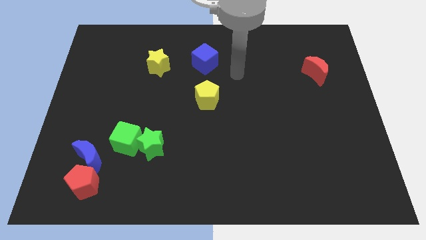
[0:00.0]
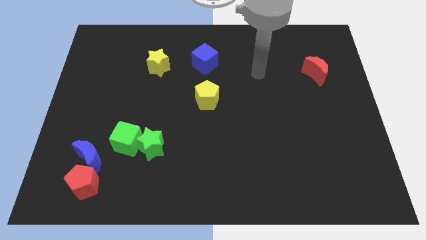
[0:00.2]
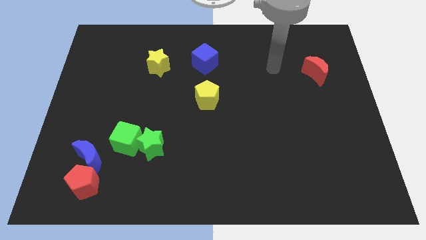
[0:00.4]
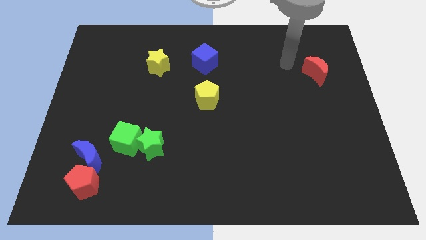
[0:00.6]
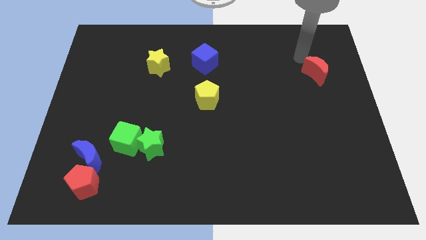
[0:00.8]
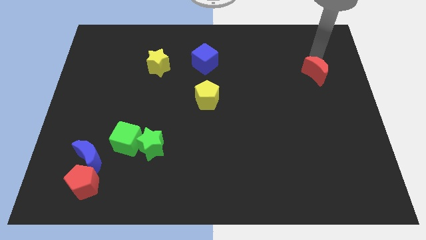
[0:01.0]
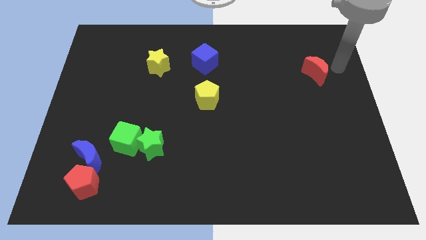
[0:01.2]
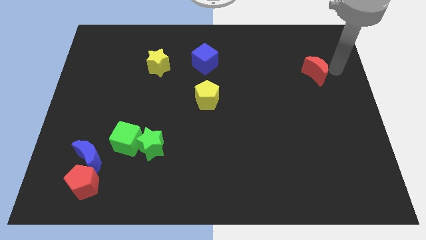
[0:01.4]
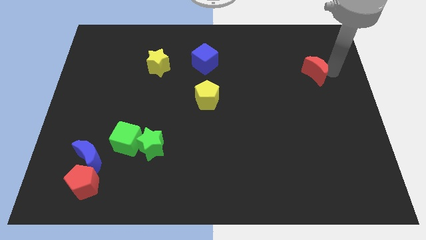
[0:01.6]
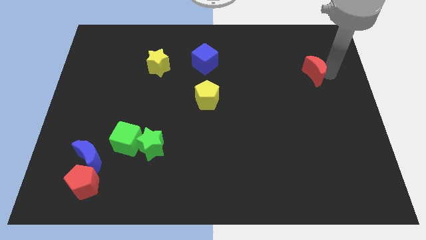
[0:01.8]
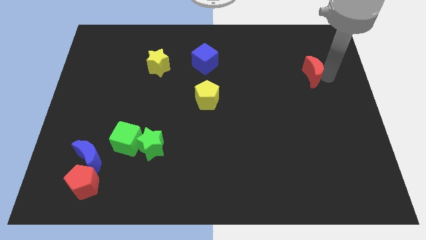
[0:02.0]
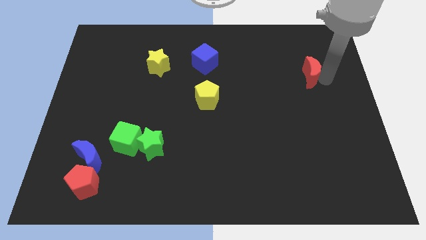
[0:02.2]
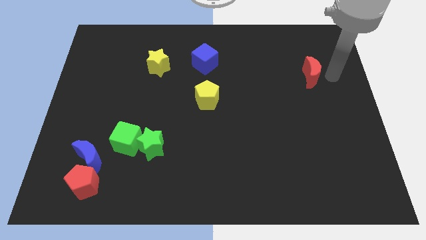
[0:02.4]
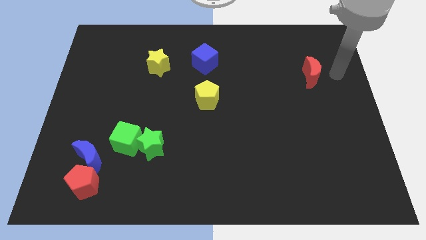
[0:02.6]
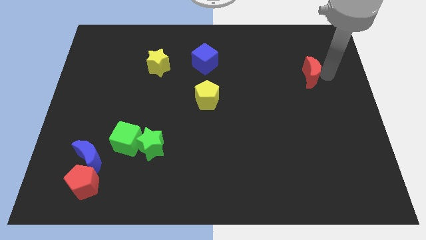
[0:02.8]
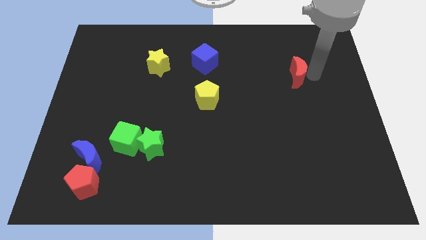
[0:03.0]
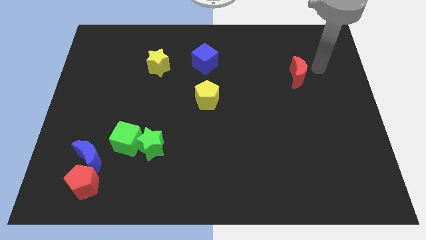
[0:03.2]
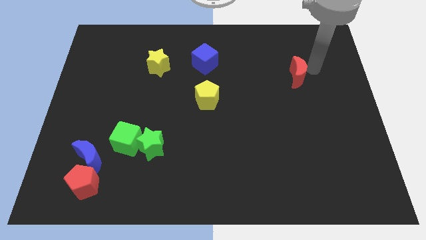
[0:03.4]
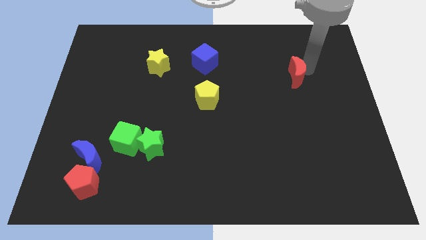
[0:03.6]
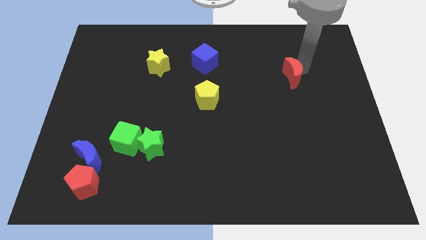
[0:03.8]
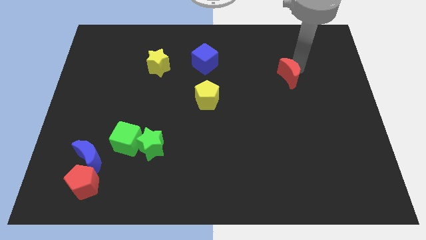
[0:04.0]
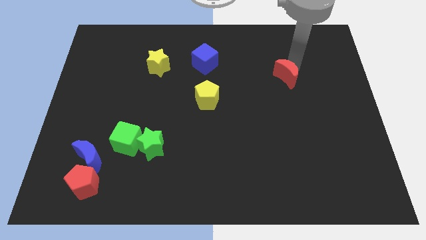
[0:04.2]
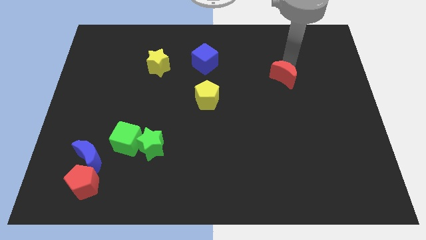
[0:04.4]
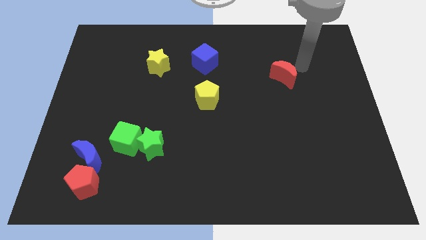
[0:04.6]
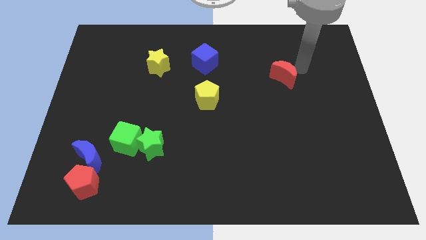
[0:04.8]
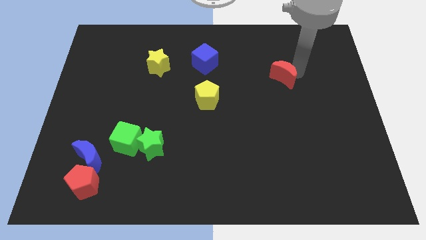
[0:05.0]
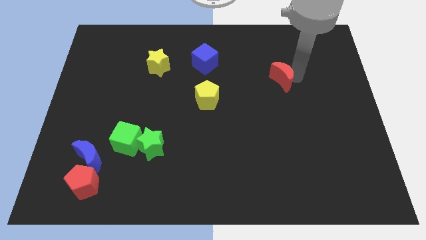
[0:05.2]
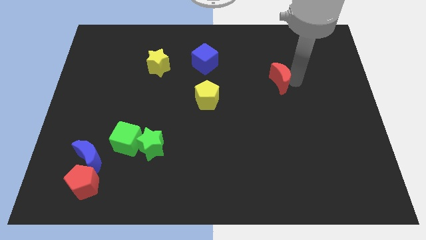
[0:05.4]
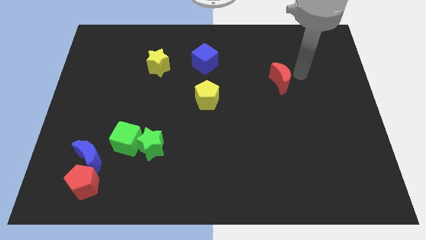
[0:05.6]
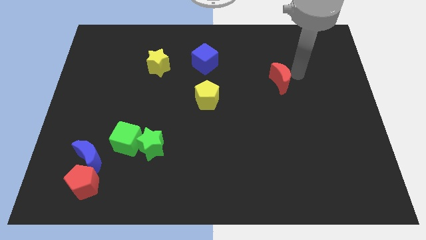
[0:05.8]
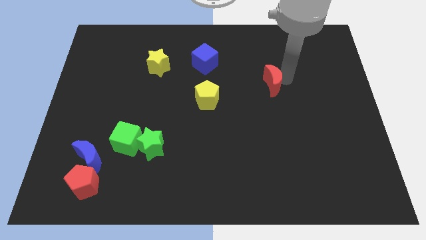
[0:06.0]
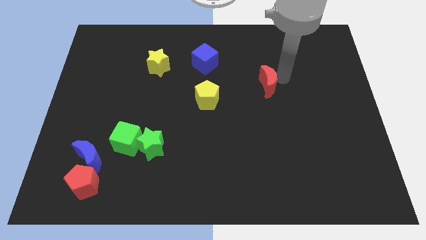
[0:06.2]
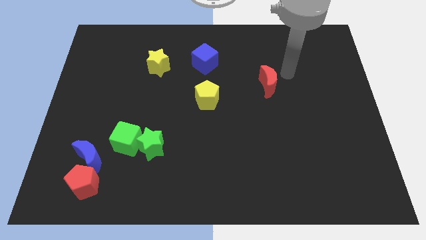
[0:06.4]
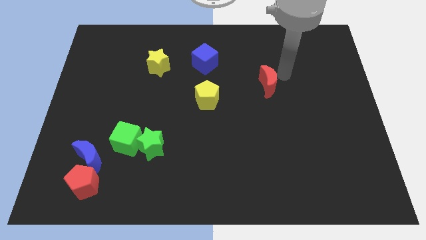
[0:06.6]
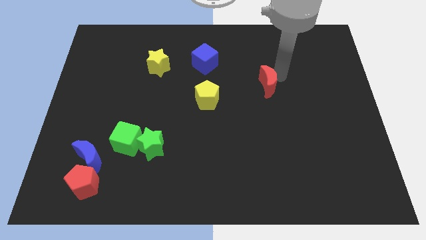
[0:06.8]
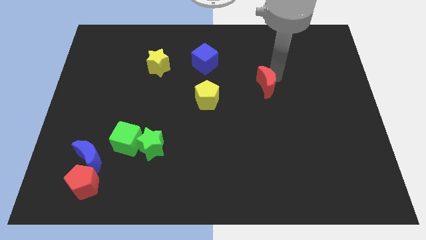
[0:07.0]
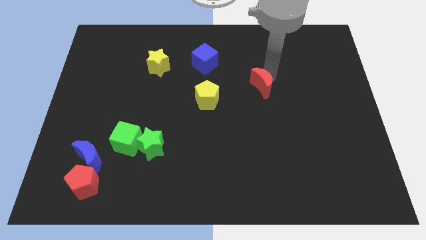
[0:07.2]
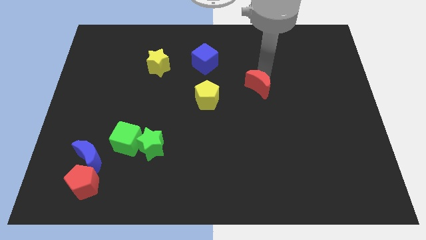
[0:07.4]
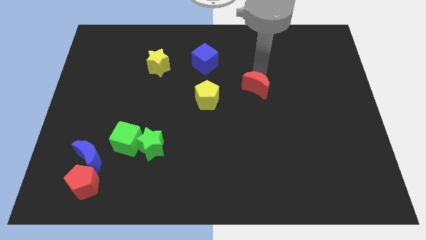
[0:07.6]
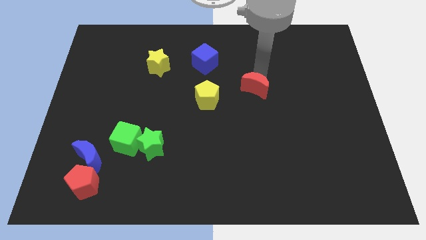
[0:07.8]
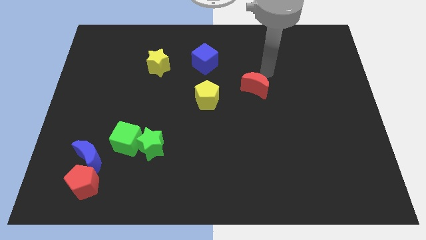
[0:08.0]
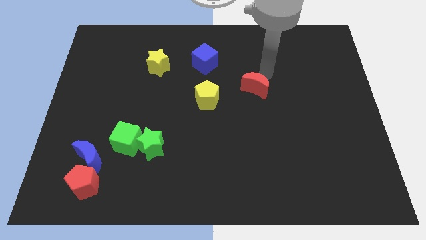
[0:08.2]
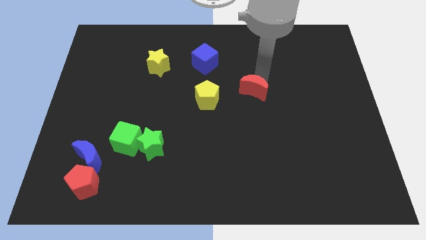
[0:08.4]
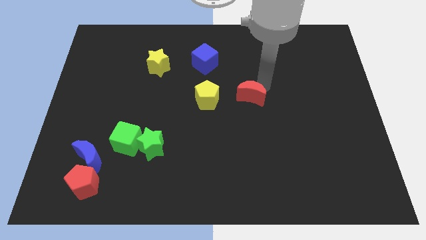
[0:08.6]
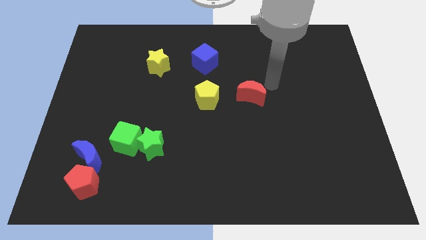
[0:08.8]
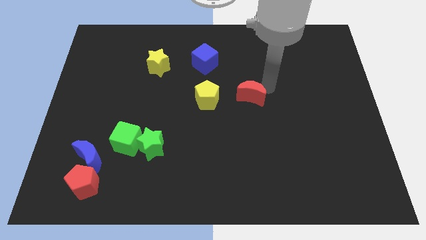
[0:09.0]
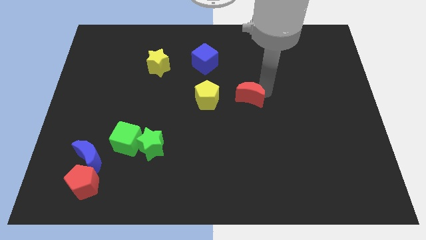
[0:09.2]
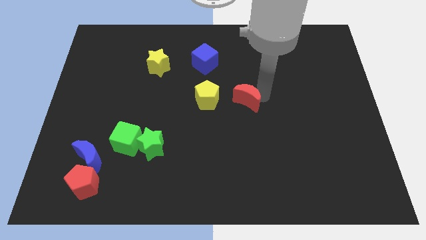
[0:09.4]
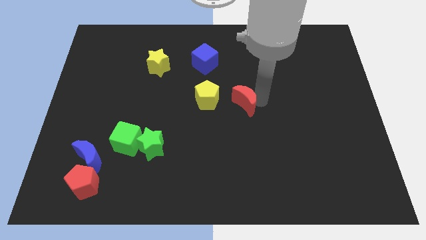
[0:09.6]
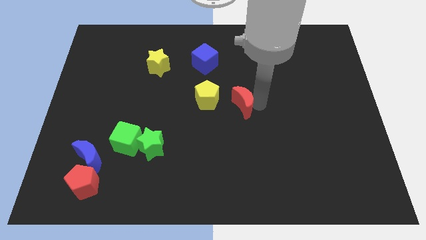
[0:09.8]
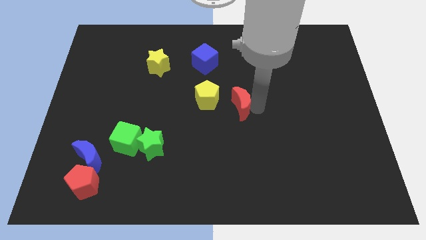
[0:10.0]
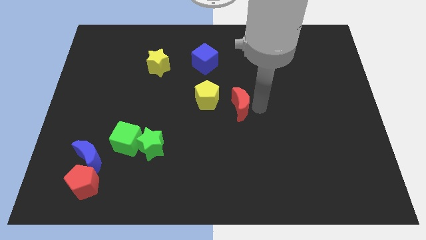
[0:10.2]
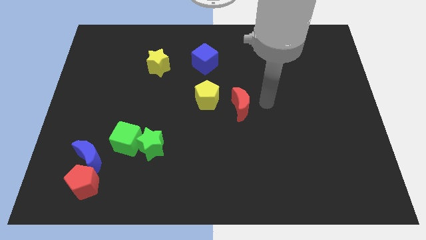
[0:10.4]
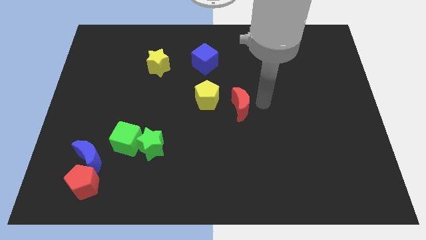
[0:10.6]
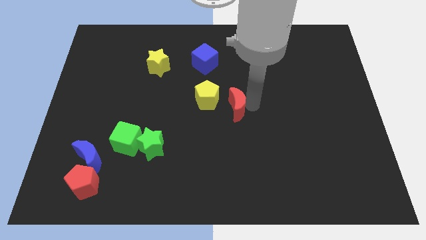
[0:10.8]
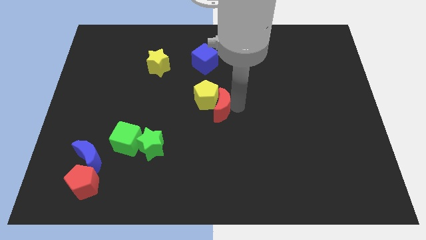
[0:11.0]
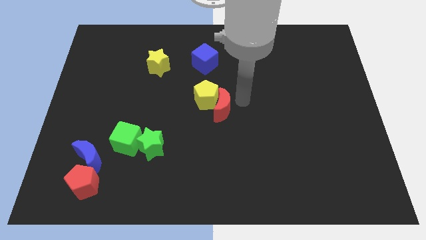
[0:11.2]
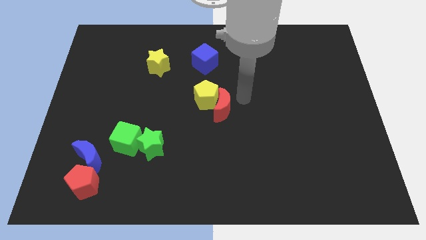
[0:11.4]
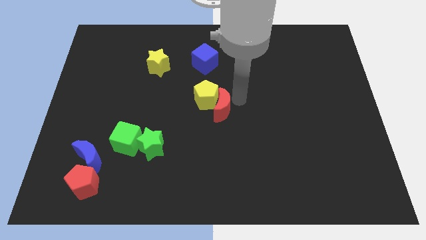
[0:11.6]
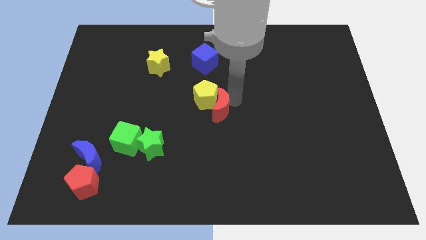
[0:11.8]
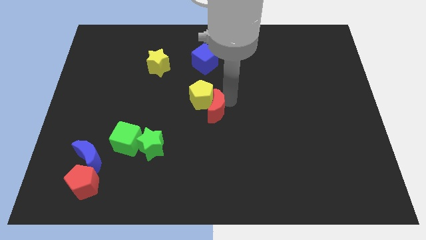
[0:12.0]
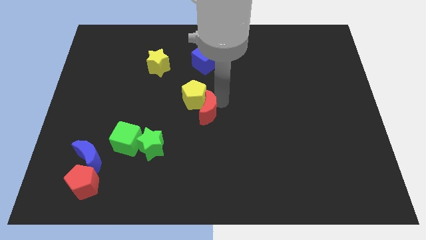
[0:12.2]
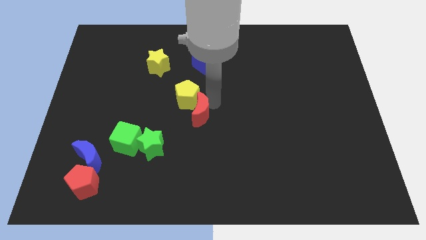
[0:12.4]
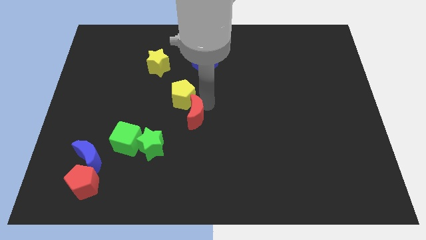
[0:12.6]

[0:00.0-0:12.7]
slide the red moon to the top right side of the green star

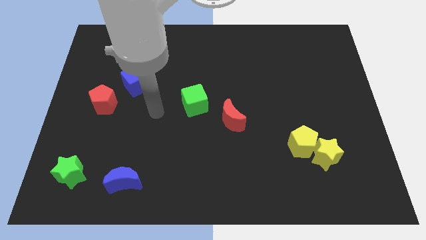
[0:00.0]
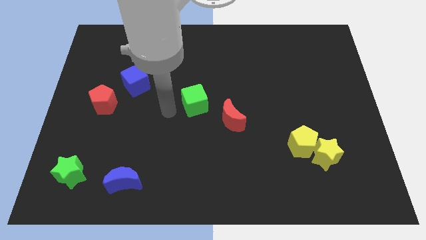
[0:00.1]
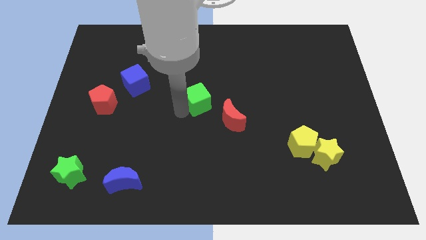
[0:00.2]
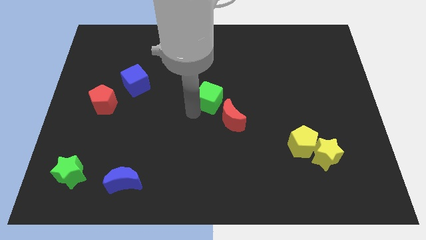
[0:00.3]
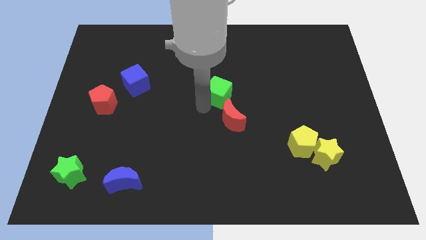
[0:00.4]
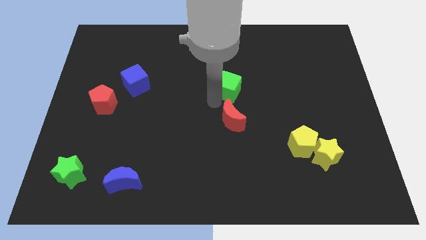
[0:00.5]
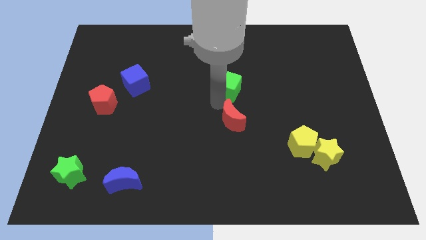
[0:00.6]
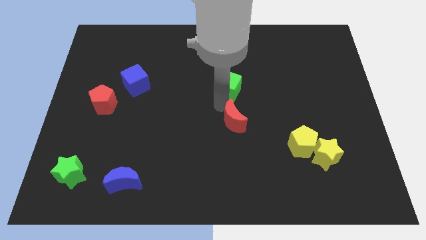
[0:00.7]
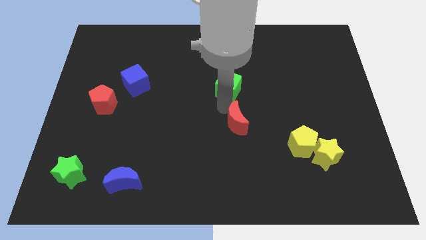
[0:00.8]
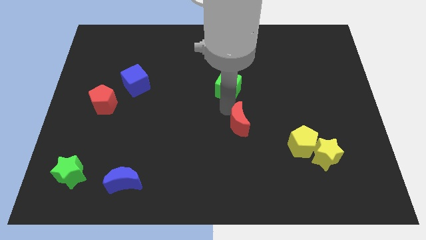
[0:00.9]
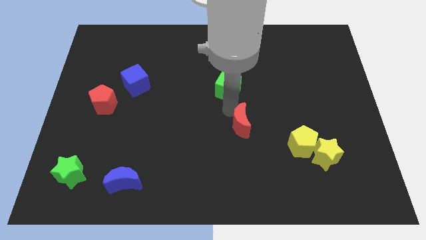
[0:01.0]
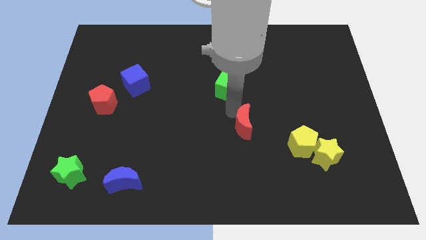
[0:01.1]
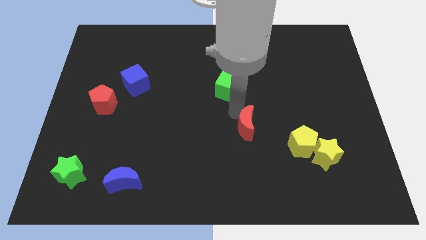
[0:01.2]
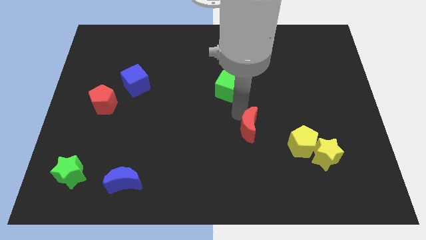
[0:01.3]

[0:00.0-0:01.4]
push the red moon left of the yellow pentagon

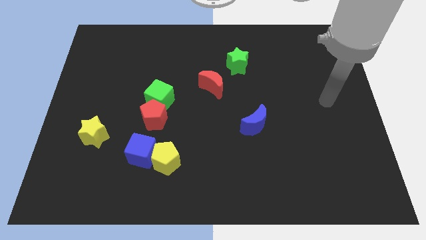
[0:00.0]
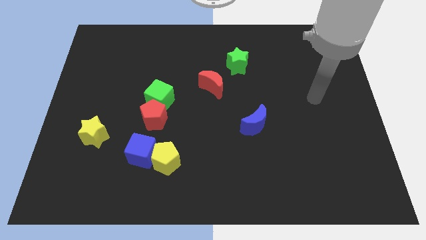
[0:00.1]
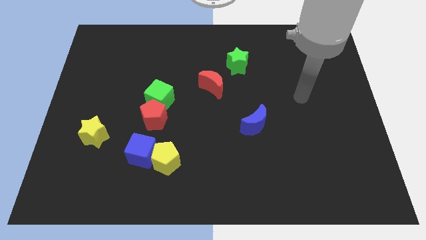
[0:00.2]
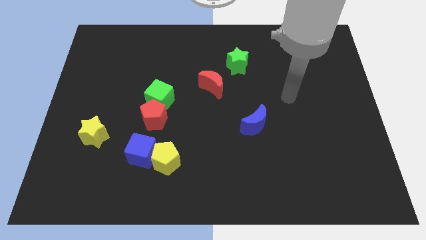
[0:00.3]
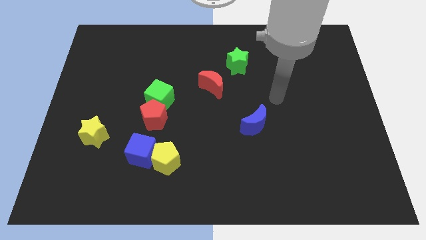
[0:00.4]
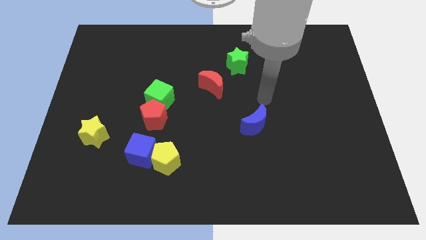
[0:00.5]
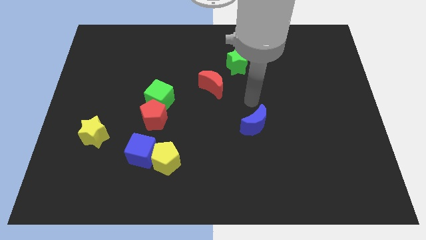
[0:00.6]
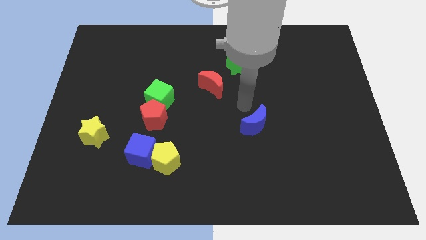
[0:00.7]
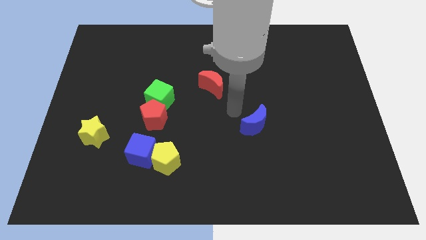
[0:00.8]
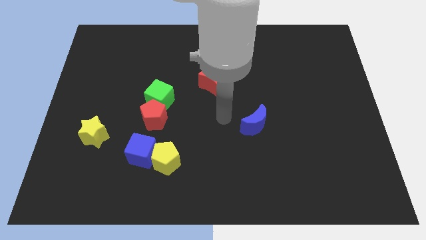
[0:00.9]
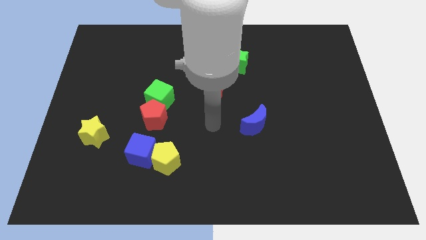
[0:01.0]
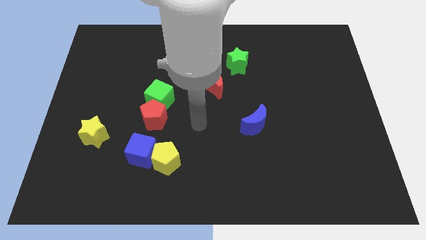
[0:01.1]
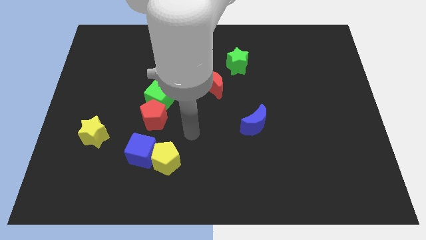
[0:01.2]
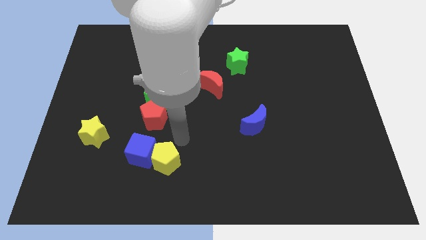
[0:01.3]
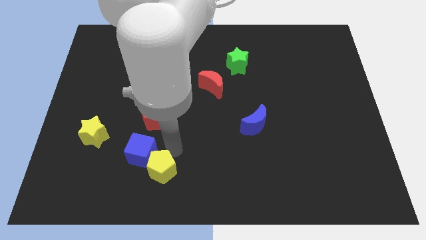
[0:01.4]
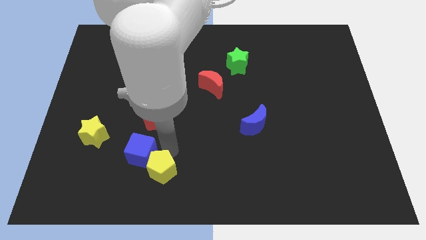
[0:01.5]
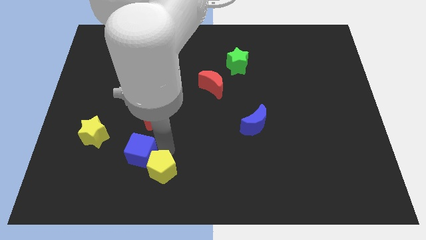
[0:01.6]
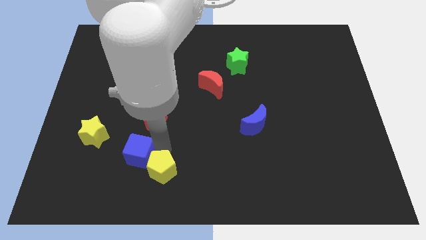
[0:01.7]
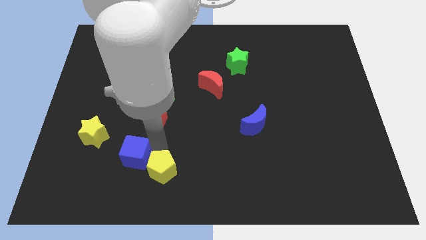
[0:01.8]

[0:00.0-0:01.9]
slide the blue cube to the bottom right side of the yellow star
